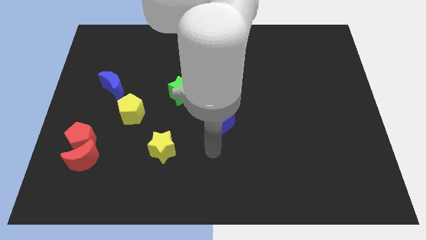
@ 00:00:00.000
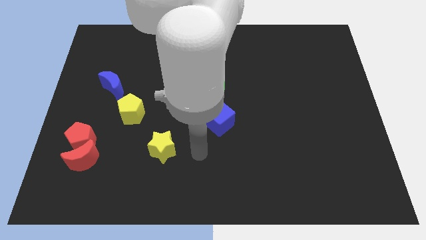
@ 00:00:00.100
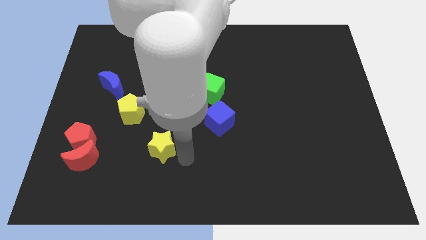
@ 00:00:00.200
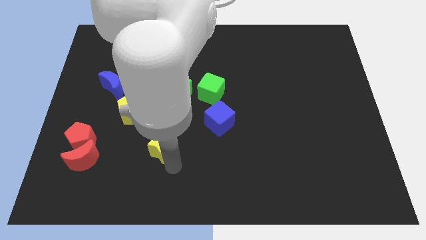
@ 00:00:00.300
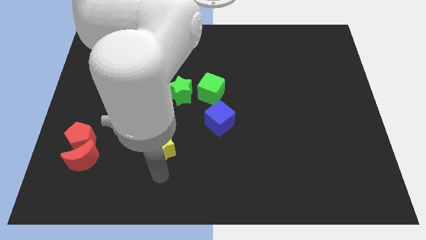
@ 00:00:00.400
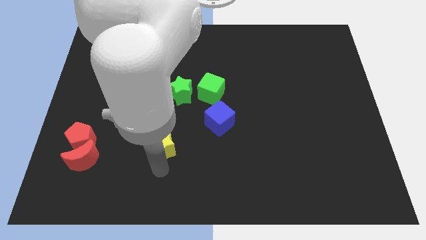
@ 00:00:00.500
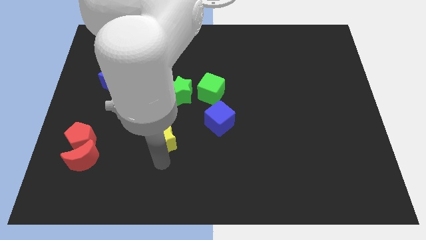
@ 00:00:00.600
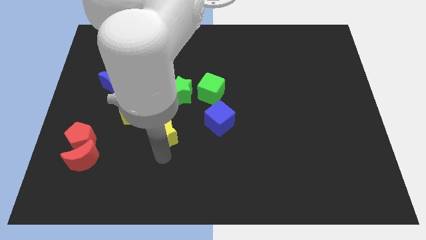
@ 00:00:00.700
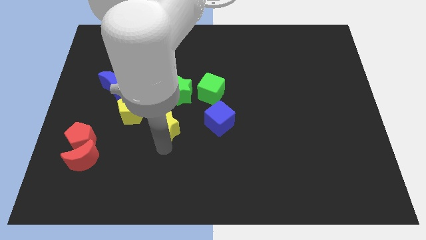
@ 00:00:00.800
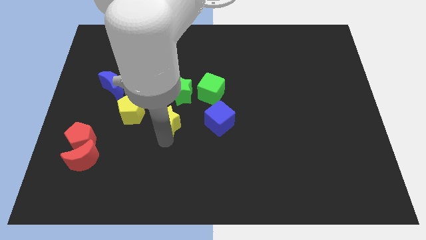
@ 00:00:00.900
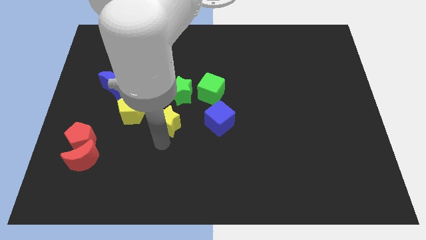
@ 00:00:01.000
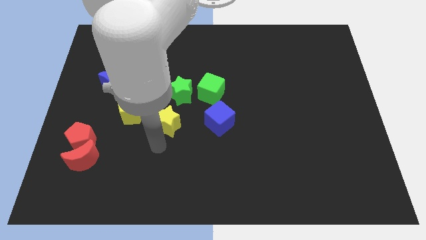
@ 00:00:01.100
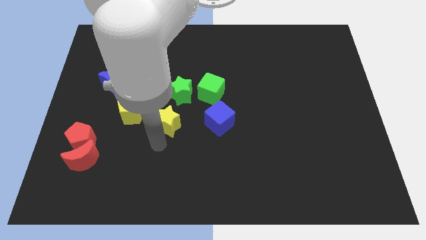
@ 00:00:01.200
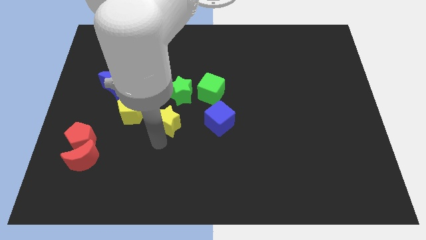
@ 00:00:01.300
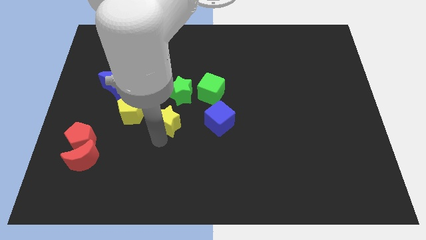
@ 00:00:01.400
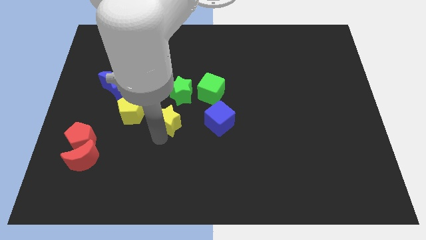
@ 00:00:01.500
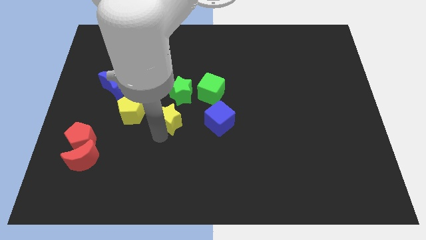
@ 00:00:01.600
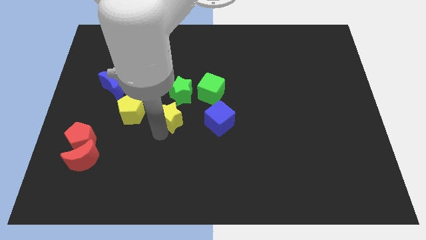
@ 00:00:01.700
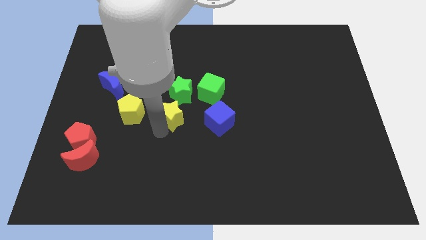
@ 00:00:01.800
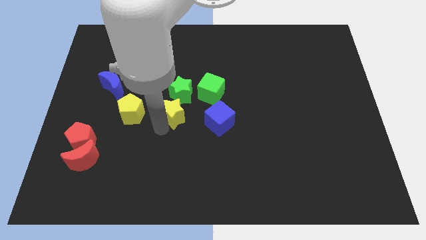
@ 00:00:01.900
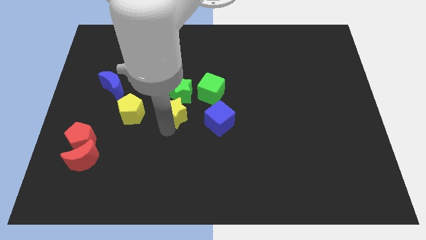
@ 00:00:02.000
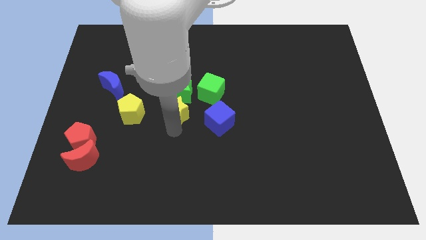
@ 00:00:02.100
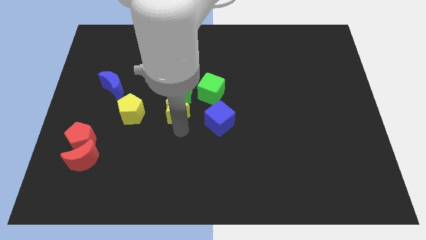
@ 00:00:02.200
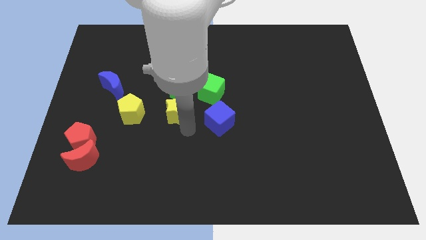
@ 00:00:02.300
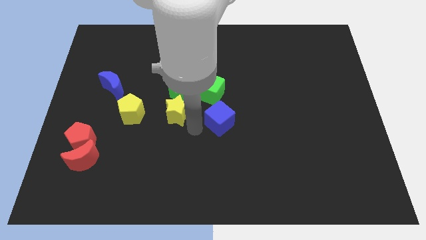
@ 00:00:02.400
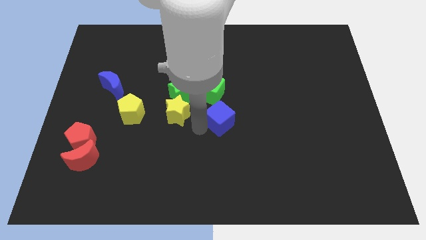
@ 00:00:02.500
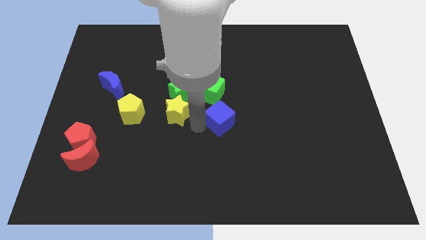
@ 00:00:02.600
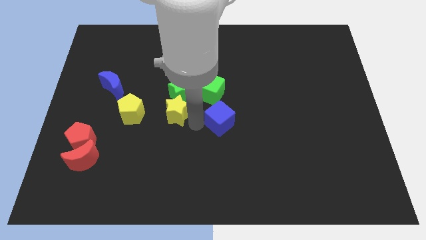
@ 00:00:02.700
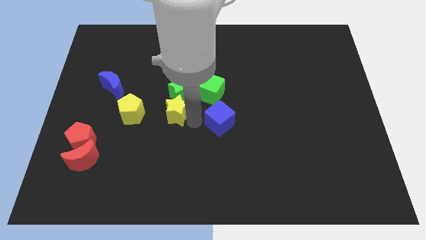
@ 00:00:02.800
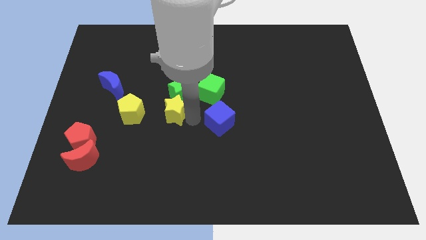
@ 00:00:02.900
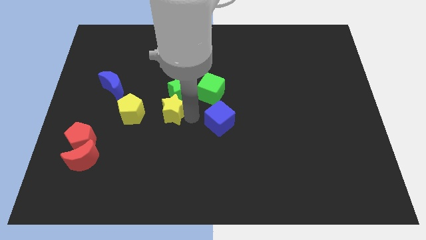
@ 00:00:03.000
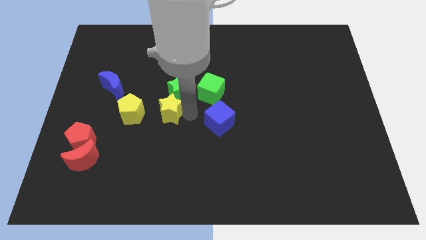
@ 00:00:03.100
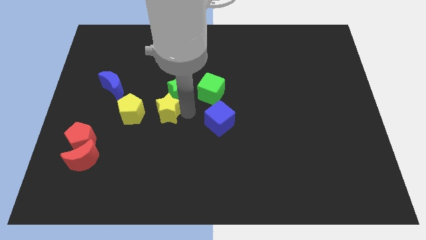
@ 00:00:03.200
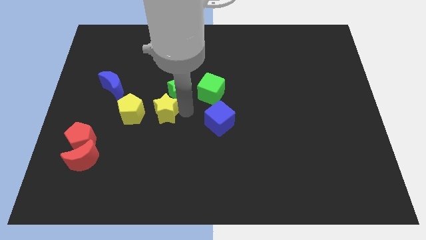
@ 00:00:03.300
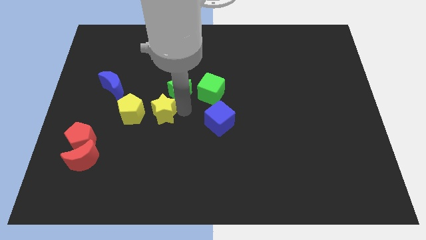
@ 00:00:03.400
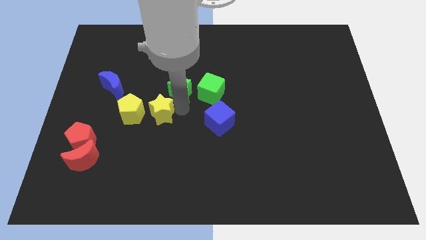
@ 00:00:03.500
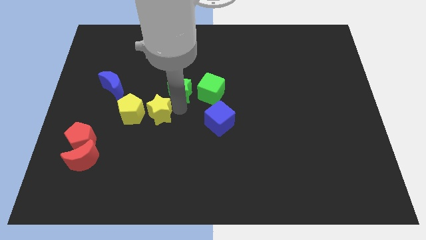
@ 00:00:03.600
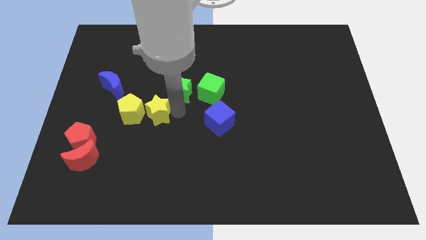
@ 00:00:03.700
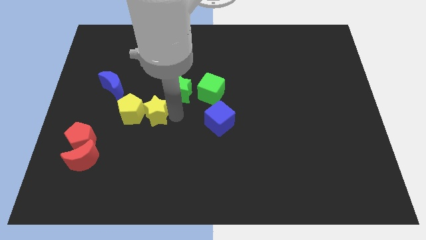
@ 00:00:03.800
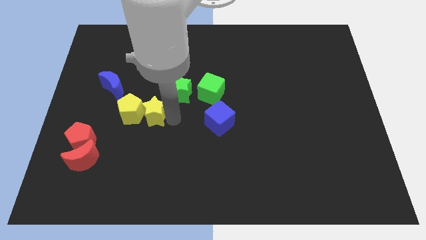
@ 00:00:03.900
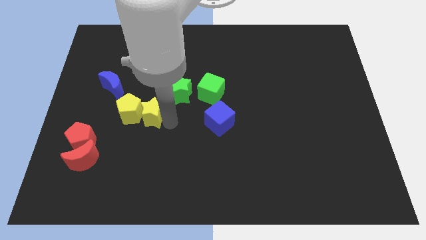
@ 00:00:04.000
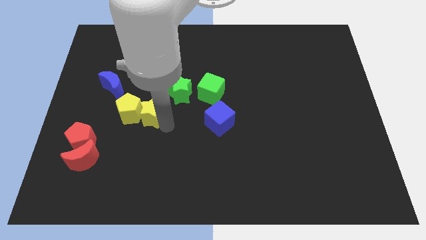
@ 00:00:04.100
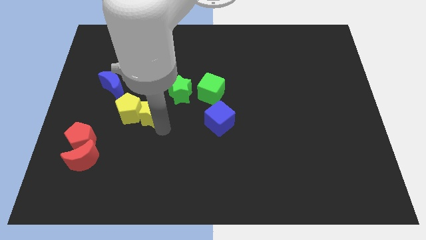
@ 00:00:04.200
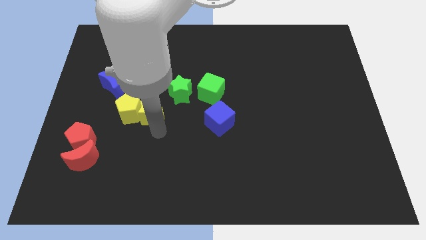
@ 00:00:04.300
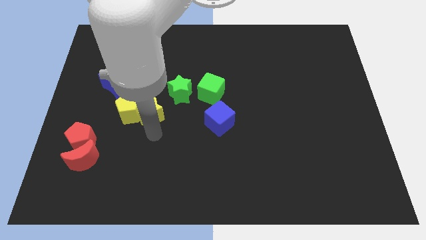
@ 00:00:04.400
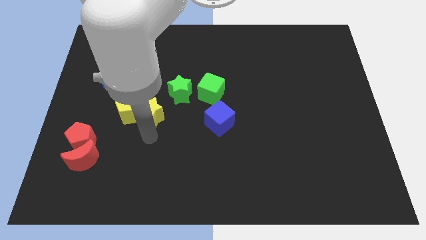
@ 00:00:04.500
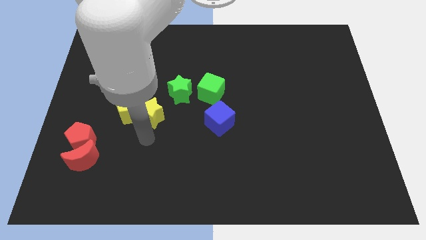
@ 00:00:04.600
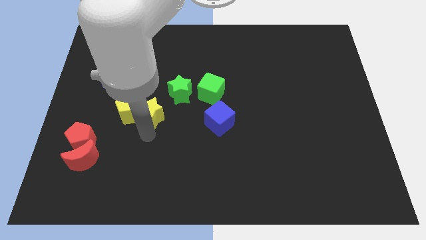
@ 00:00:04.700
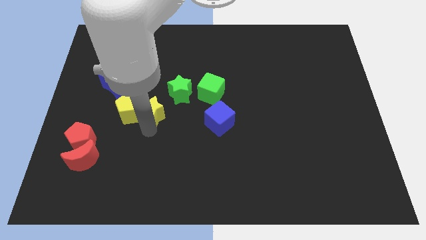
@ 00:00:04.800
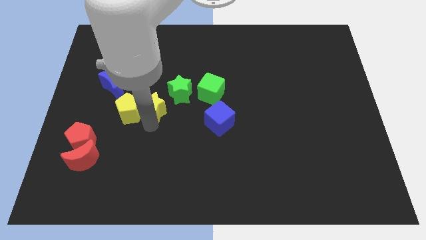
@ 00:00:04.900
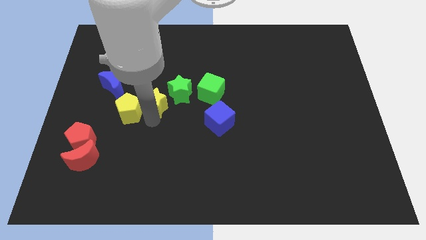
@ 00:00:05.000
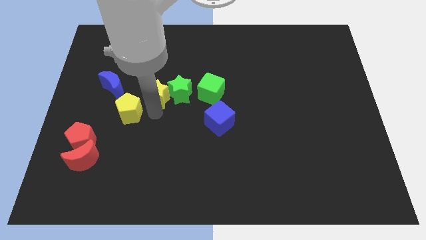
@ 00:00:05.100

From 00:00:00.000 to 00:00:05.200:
move the yellow star to the top left side of the green star

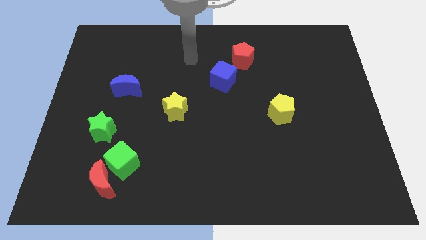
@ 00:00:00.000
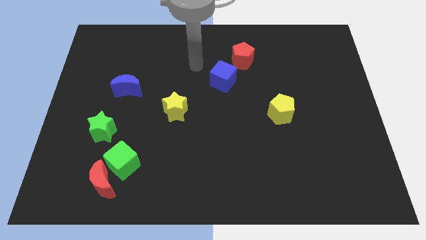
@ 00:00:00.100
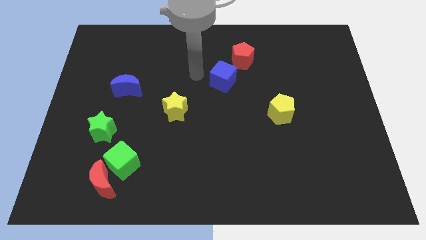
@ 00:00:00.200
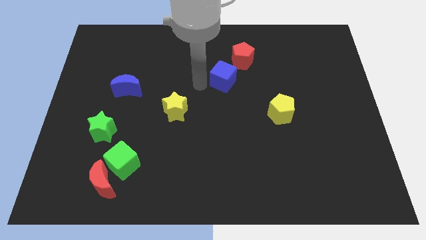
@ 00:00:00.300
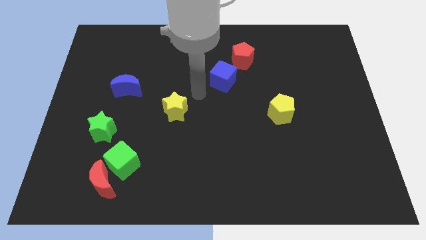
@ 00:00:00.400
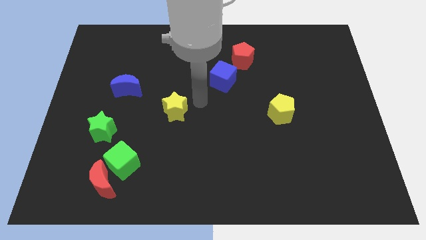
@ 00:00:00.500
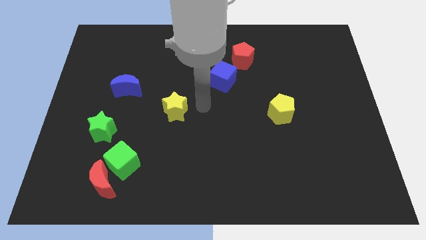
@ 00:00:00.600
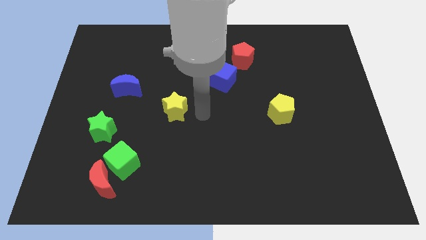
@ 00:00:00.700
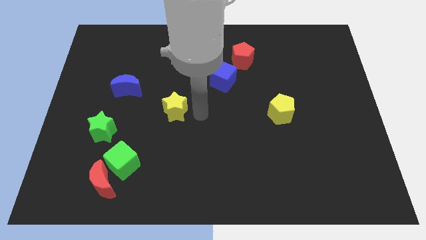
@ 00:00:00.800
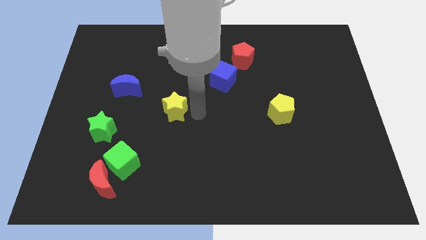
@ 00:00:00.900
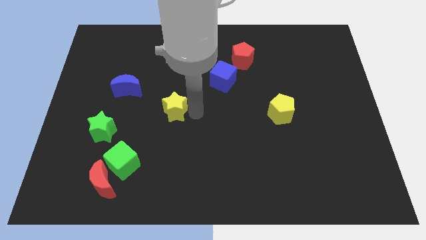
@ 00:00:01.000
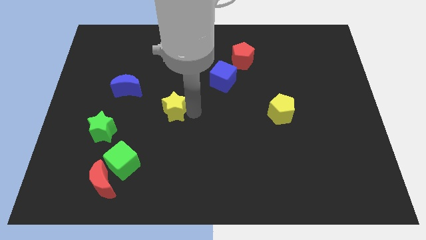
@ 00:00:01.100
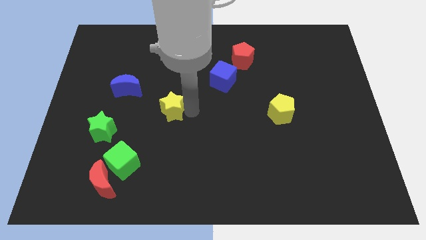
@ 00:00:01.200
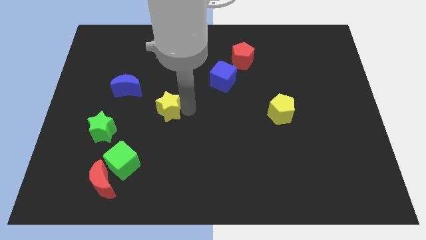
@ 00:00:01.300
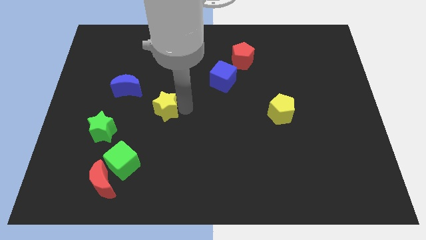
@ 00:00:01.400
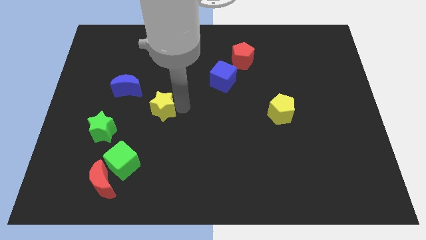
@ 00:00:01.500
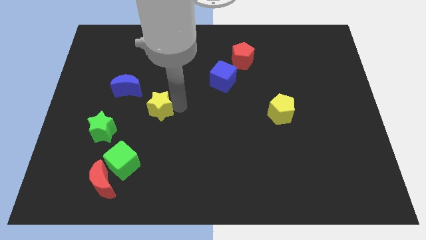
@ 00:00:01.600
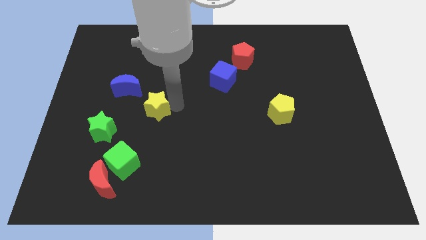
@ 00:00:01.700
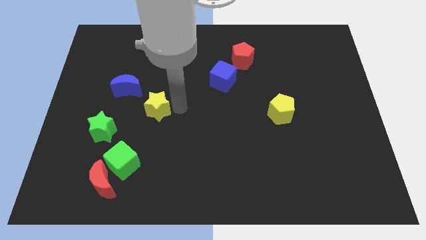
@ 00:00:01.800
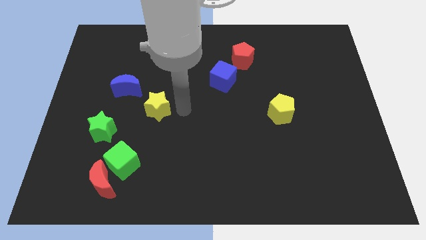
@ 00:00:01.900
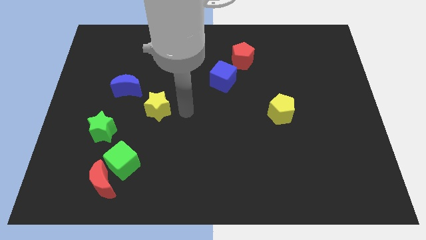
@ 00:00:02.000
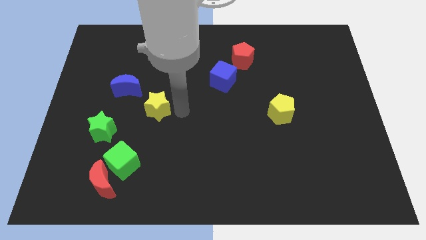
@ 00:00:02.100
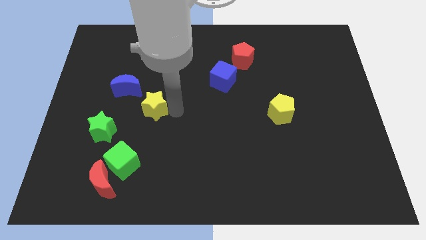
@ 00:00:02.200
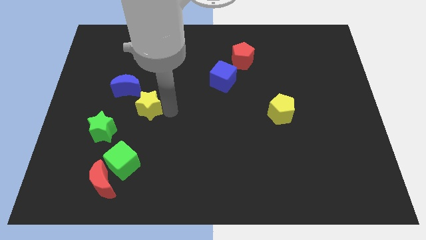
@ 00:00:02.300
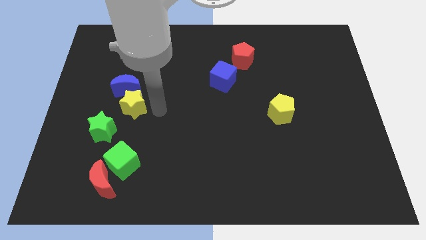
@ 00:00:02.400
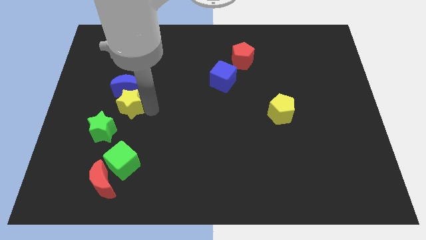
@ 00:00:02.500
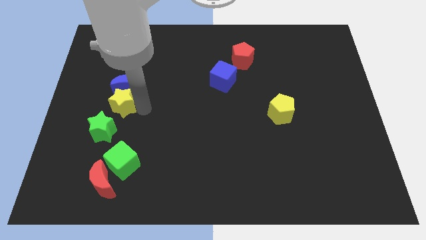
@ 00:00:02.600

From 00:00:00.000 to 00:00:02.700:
push the yellow star to the bottom left side of the blue moon
